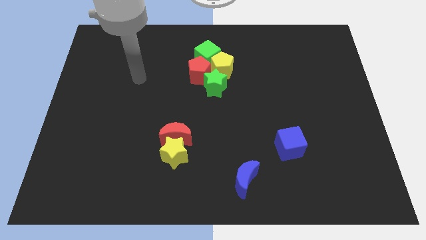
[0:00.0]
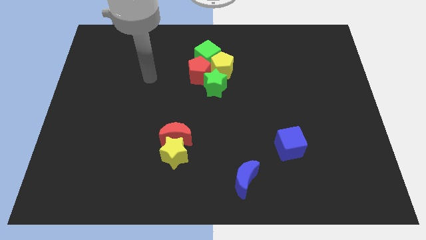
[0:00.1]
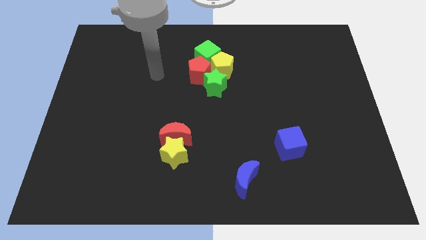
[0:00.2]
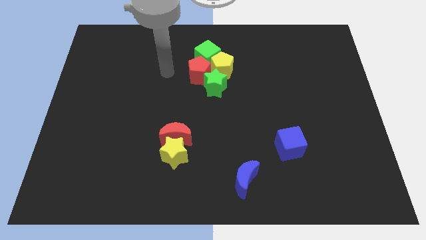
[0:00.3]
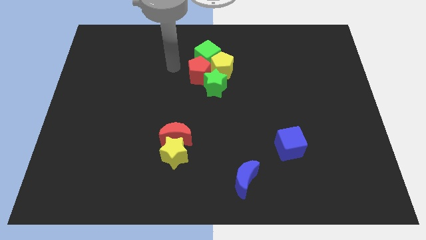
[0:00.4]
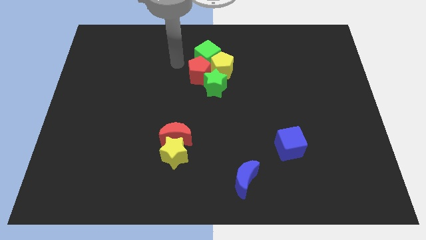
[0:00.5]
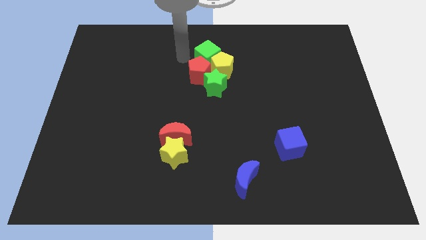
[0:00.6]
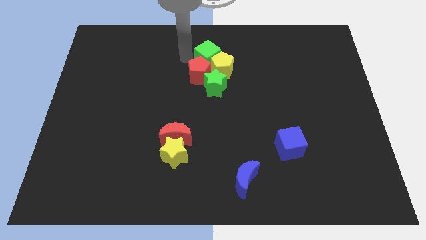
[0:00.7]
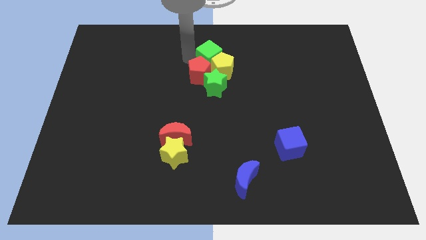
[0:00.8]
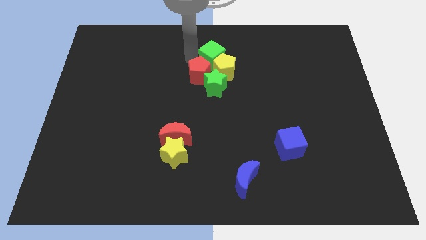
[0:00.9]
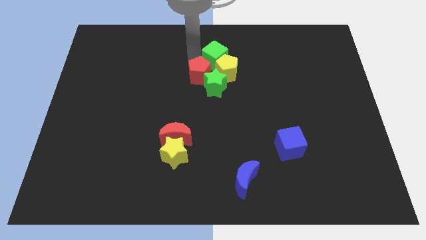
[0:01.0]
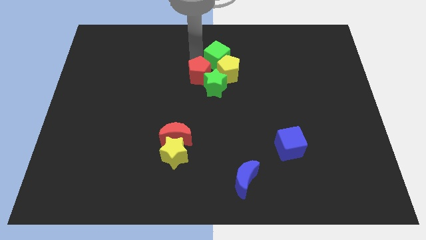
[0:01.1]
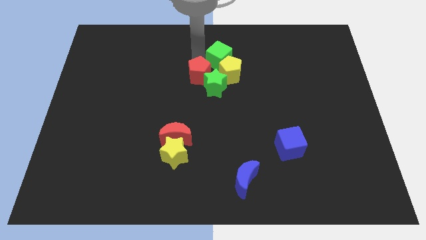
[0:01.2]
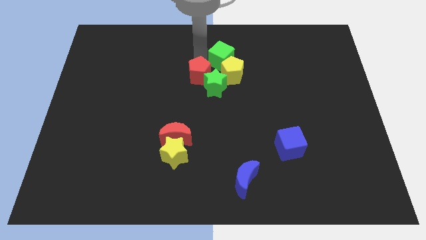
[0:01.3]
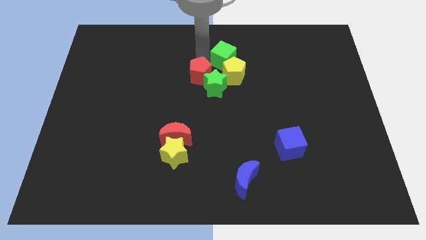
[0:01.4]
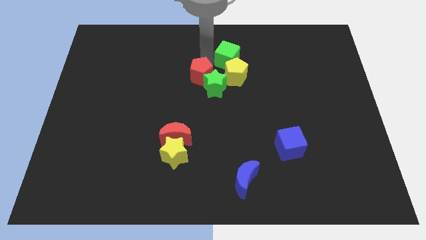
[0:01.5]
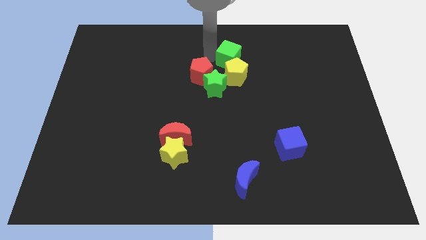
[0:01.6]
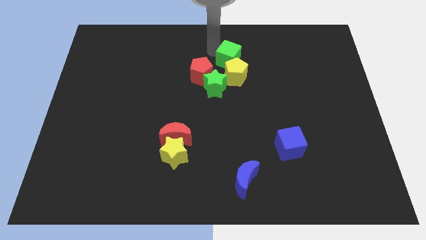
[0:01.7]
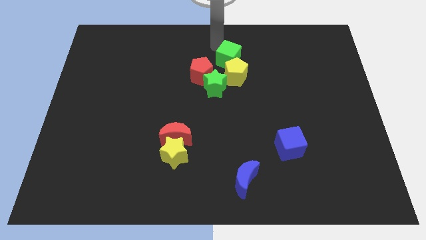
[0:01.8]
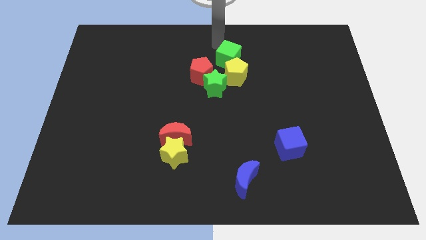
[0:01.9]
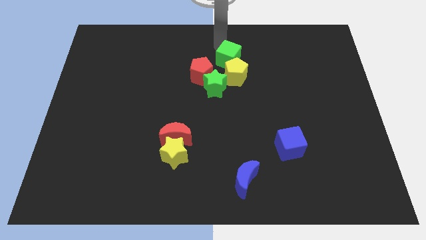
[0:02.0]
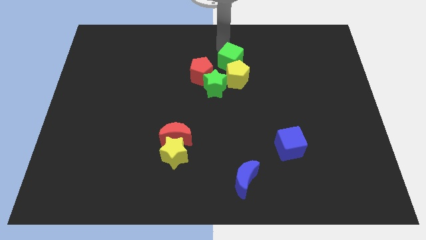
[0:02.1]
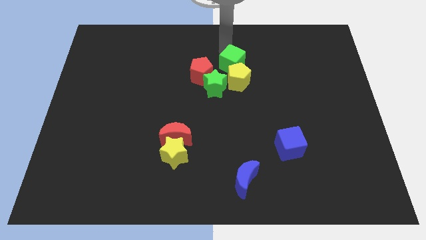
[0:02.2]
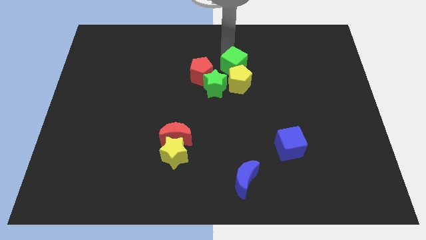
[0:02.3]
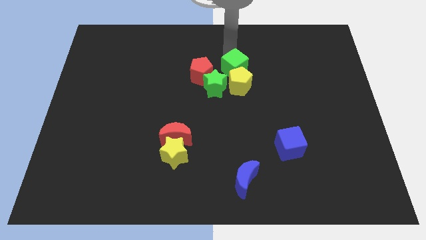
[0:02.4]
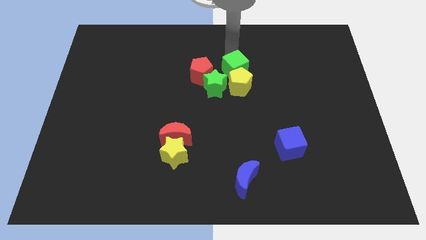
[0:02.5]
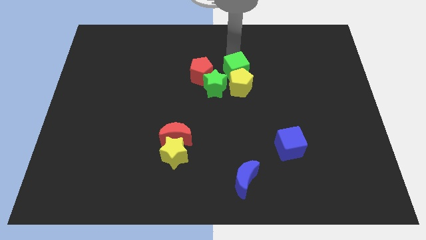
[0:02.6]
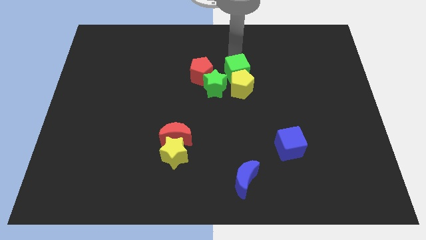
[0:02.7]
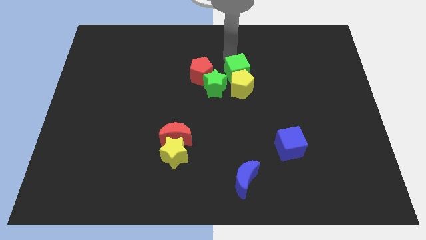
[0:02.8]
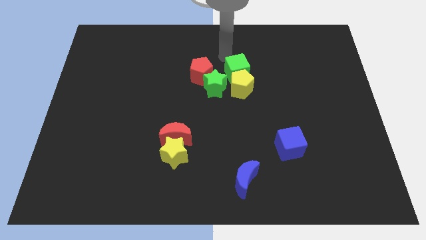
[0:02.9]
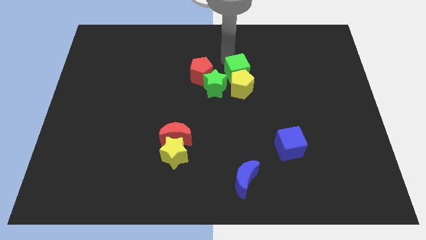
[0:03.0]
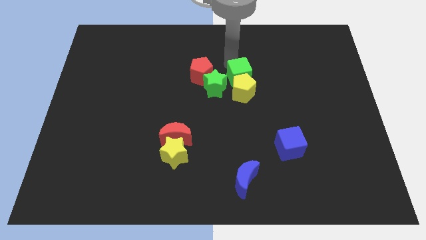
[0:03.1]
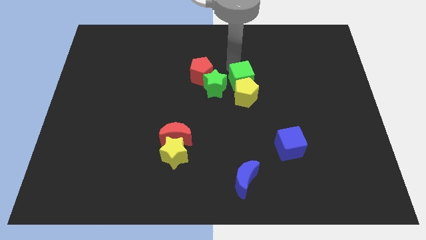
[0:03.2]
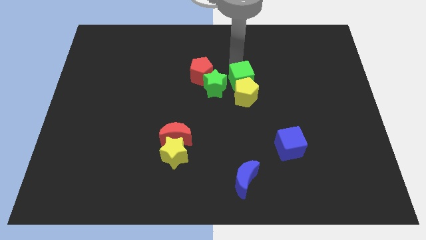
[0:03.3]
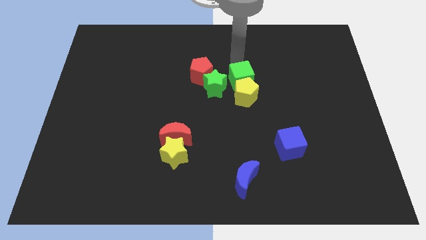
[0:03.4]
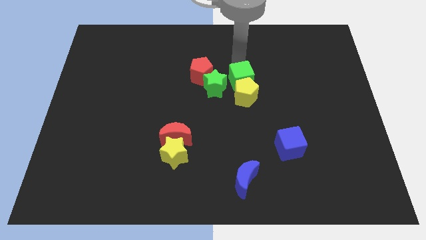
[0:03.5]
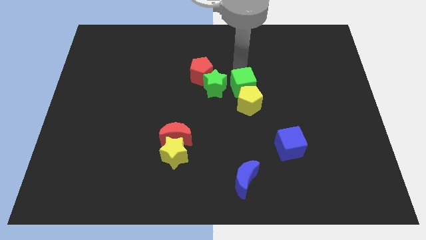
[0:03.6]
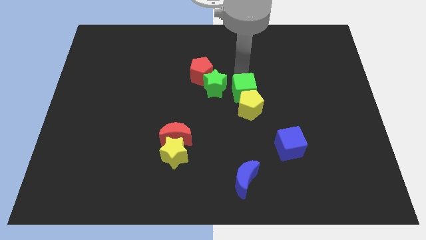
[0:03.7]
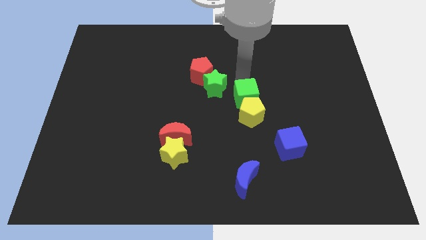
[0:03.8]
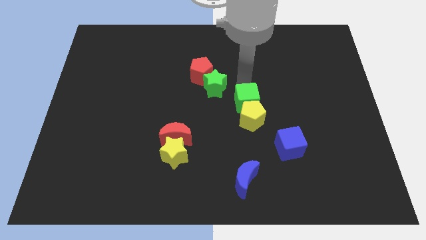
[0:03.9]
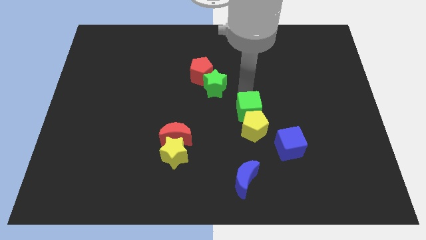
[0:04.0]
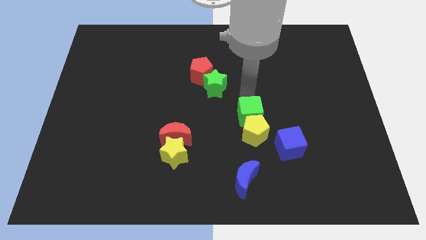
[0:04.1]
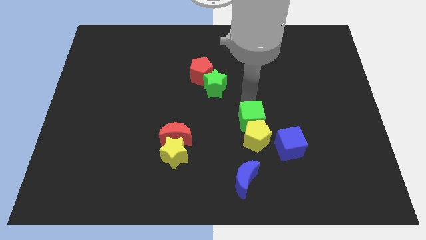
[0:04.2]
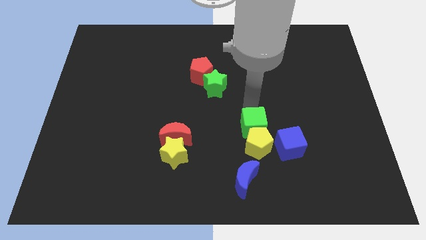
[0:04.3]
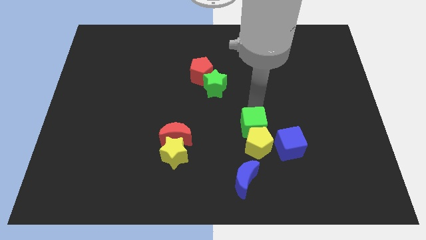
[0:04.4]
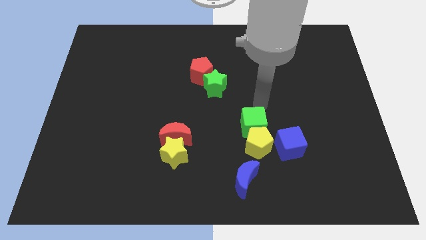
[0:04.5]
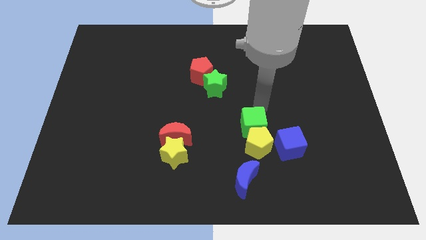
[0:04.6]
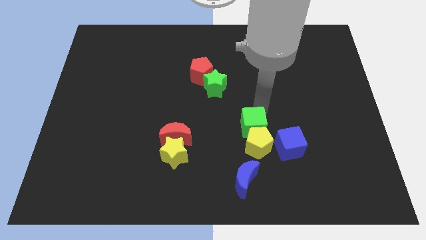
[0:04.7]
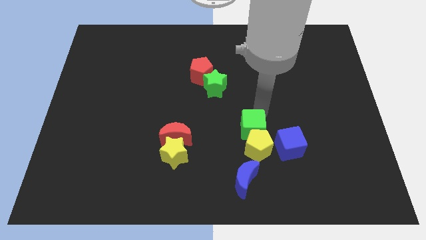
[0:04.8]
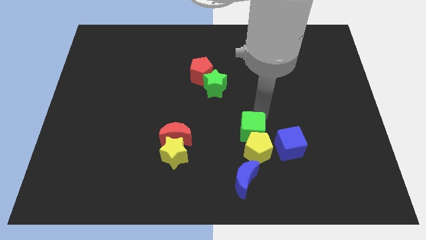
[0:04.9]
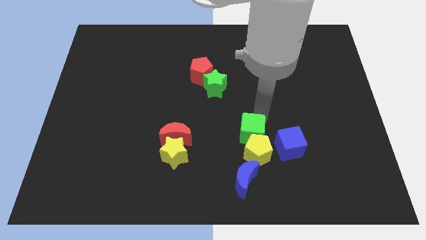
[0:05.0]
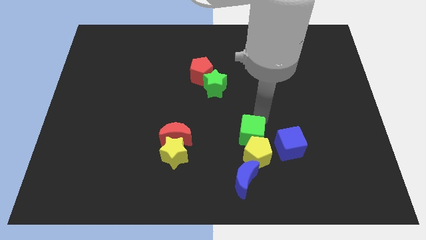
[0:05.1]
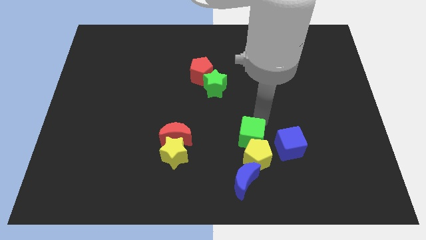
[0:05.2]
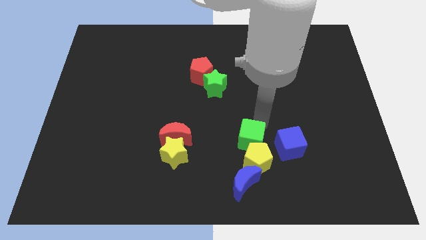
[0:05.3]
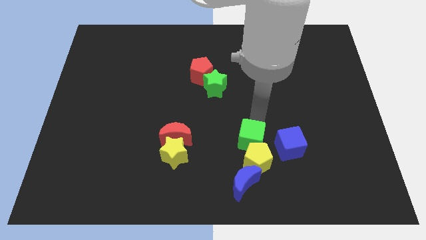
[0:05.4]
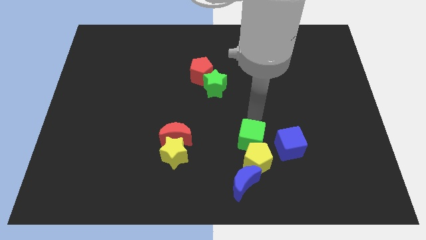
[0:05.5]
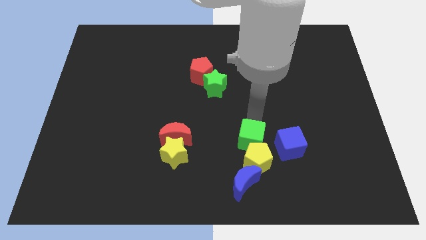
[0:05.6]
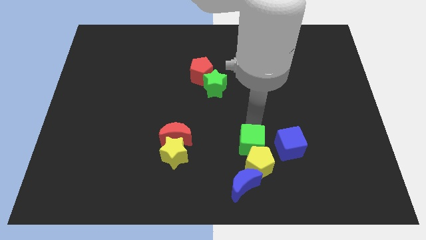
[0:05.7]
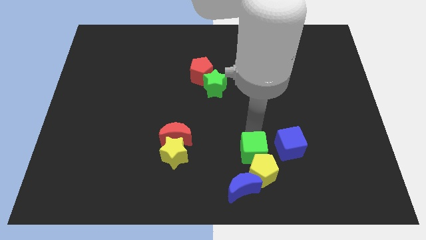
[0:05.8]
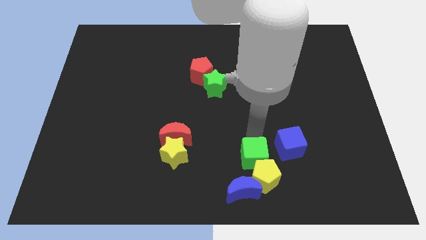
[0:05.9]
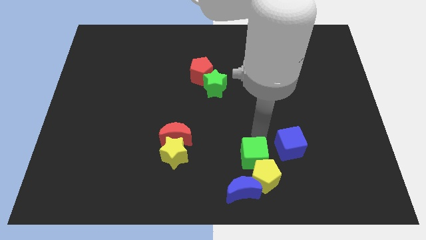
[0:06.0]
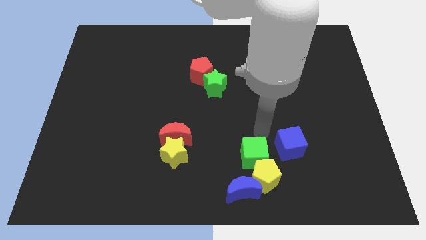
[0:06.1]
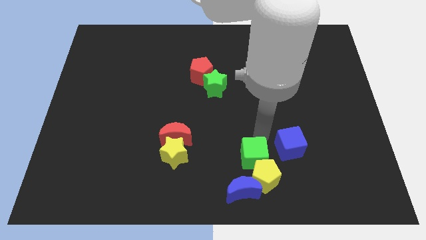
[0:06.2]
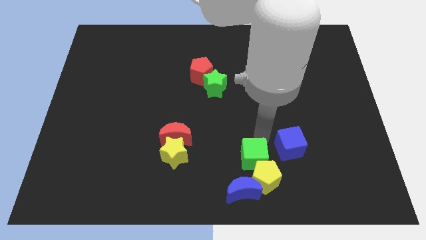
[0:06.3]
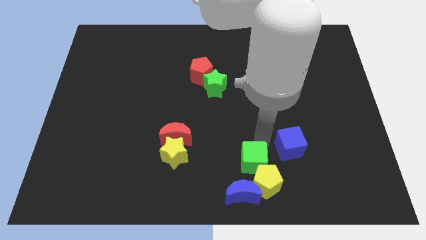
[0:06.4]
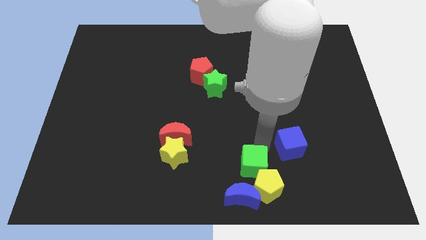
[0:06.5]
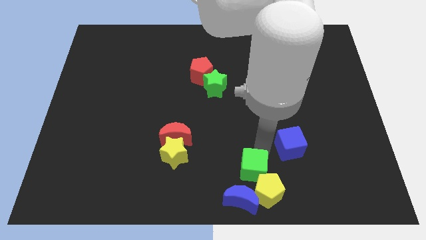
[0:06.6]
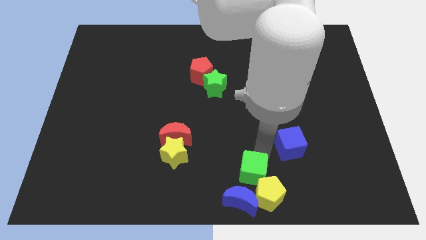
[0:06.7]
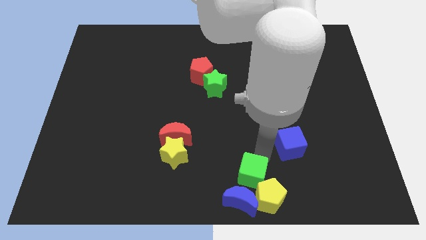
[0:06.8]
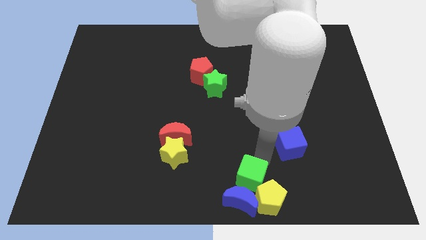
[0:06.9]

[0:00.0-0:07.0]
move the green cube close to the blue moon
